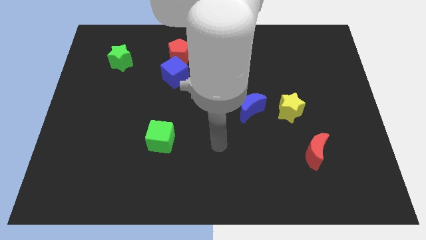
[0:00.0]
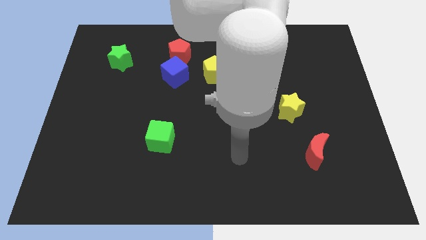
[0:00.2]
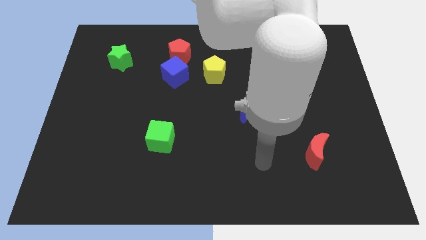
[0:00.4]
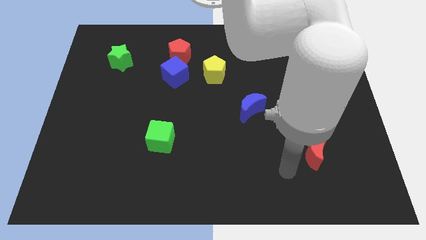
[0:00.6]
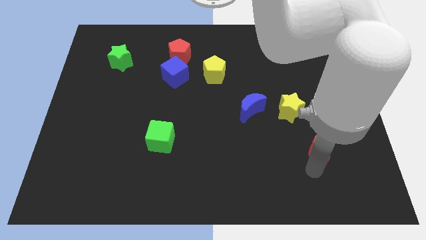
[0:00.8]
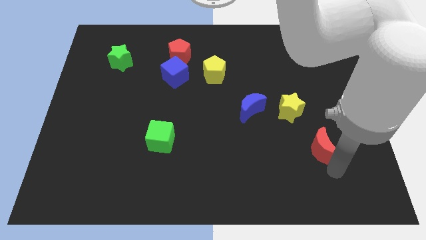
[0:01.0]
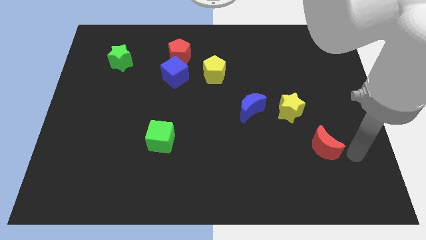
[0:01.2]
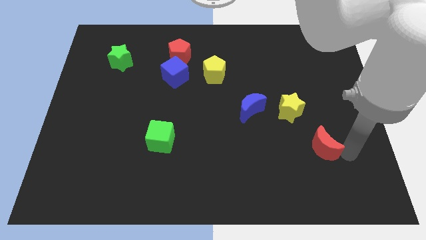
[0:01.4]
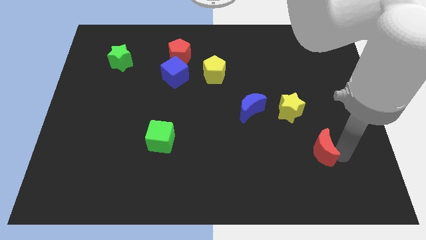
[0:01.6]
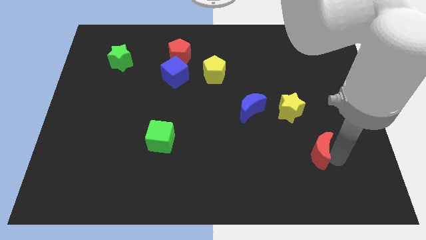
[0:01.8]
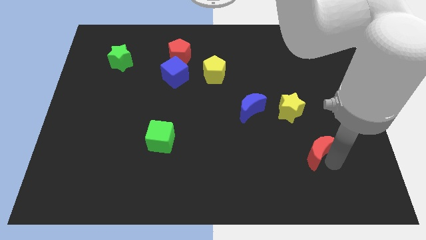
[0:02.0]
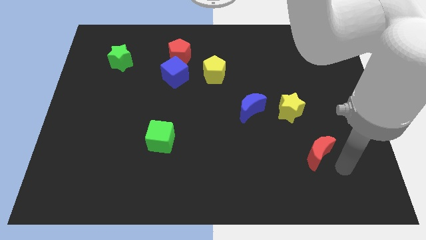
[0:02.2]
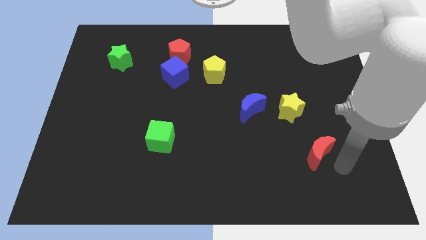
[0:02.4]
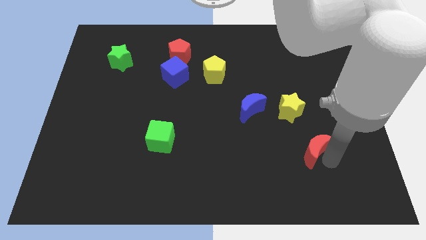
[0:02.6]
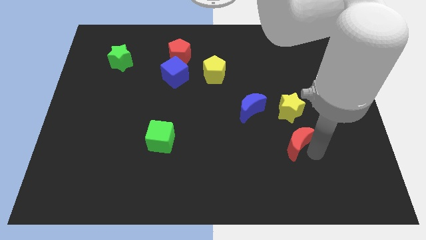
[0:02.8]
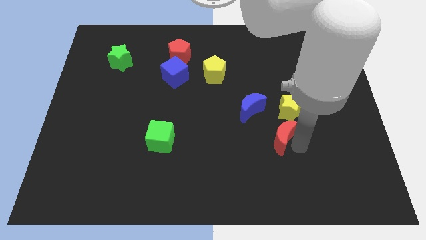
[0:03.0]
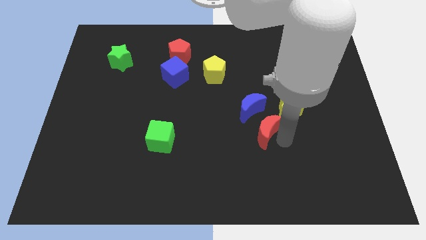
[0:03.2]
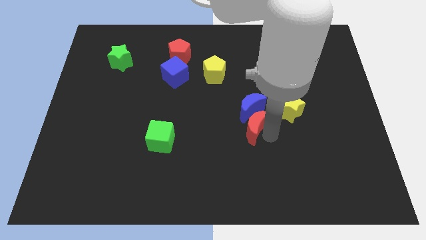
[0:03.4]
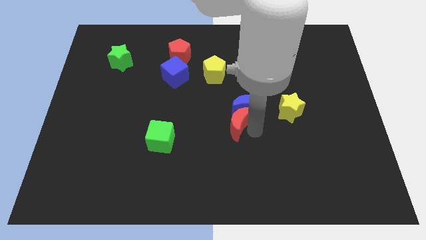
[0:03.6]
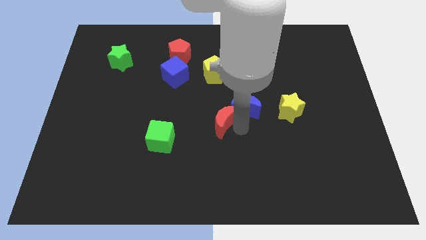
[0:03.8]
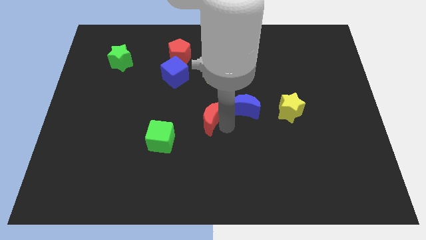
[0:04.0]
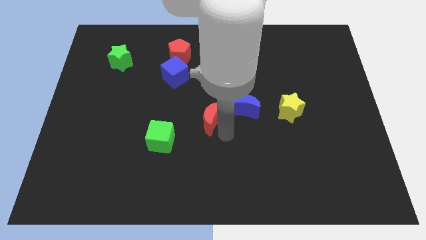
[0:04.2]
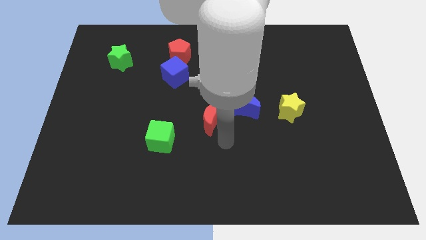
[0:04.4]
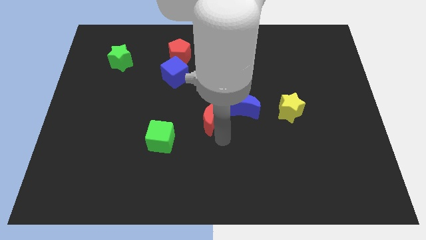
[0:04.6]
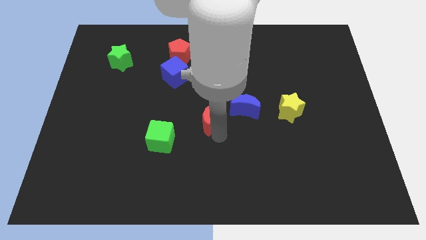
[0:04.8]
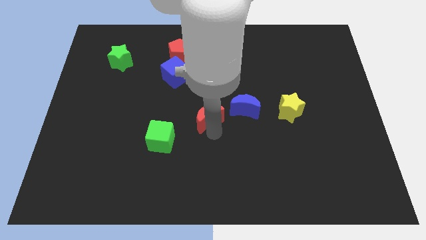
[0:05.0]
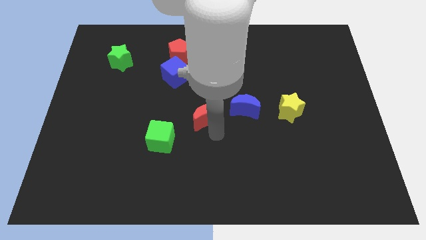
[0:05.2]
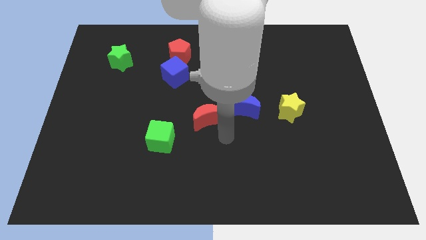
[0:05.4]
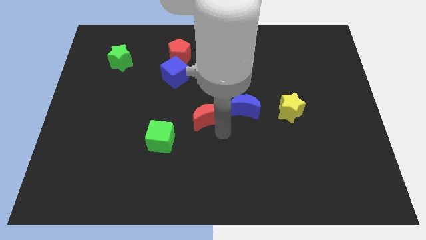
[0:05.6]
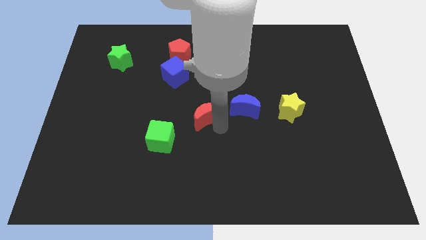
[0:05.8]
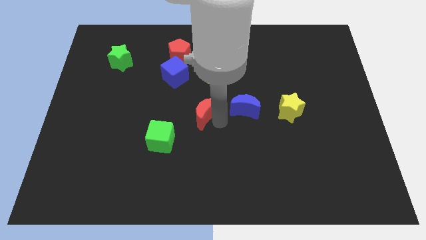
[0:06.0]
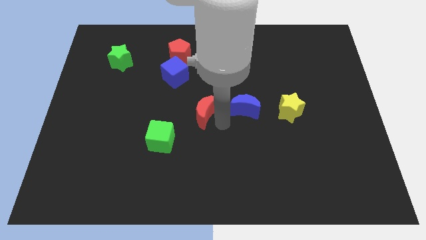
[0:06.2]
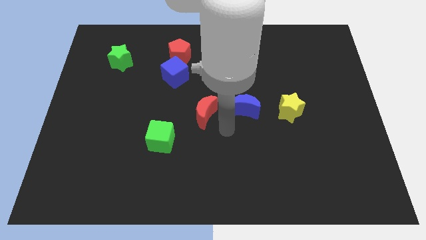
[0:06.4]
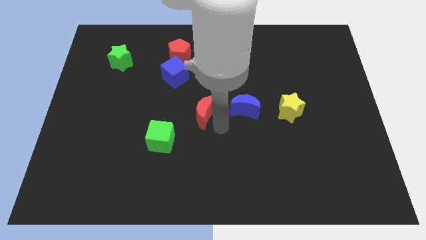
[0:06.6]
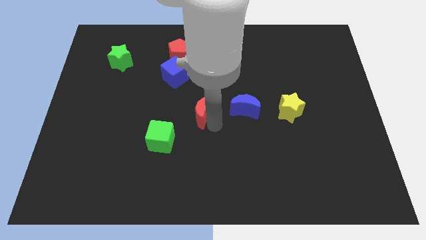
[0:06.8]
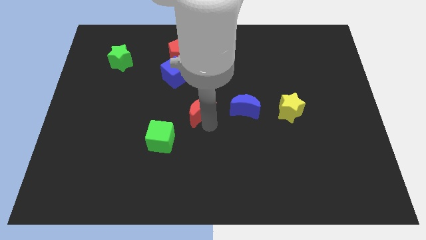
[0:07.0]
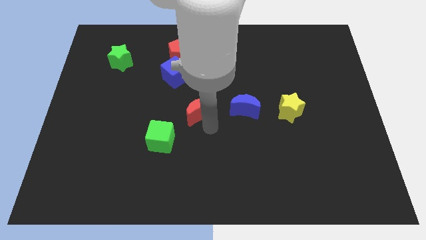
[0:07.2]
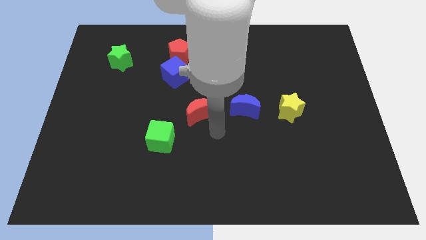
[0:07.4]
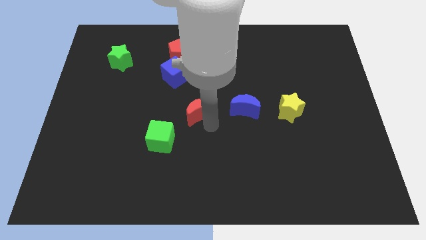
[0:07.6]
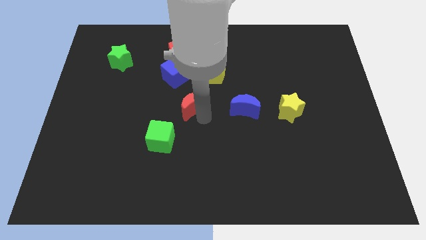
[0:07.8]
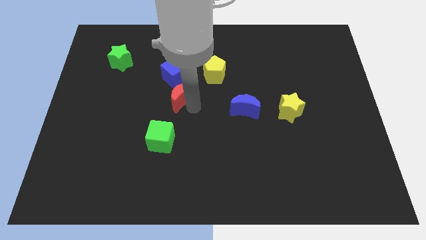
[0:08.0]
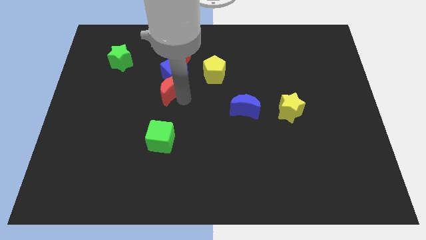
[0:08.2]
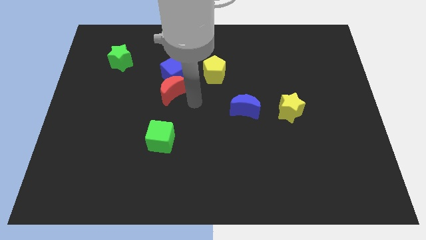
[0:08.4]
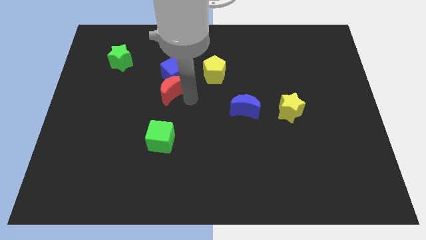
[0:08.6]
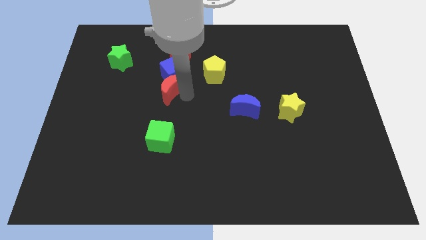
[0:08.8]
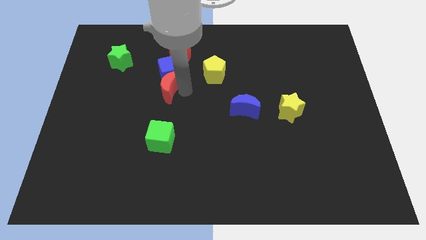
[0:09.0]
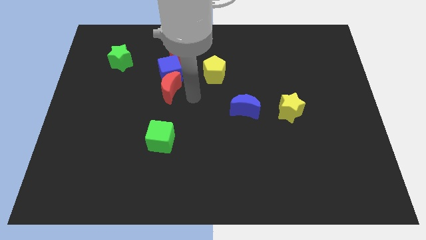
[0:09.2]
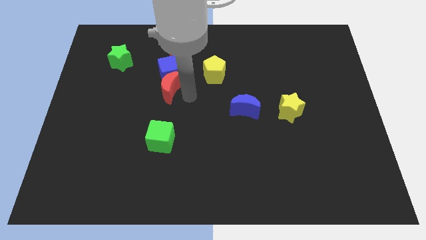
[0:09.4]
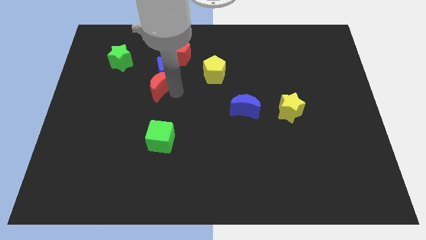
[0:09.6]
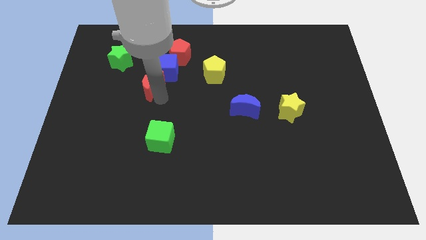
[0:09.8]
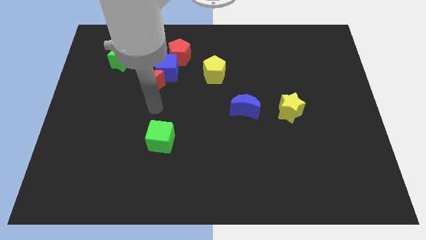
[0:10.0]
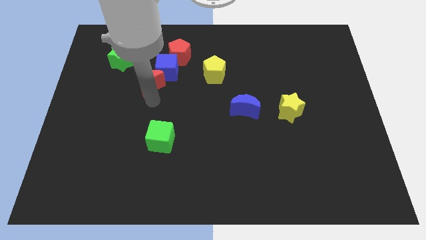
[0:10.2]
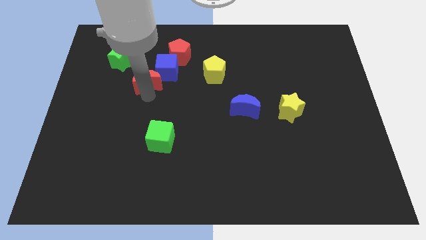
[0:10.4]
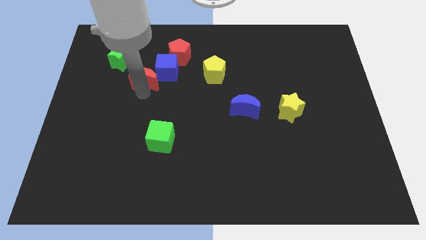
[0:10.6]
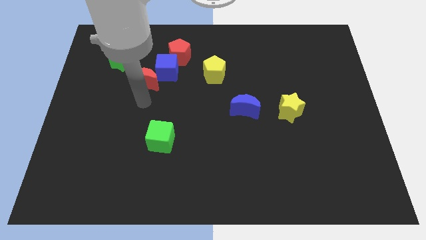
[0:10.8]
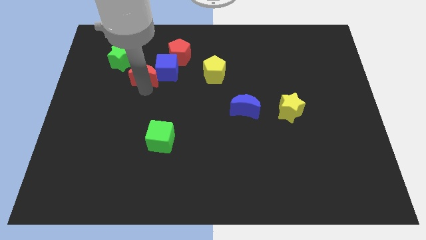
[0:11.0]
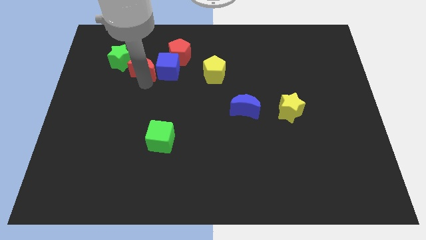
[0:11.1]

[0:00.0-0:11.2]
push the red moon to the top left side of the blue cube

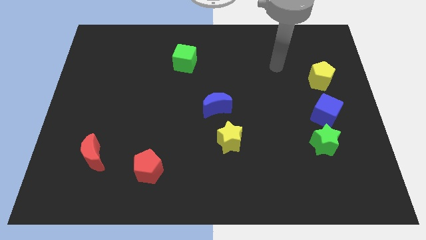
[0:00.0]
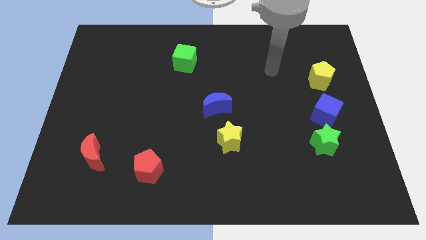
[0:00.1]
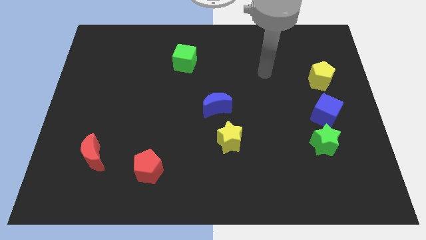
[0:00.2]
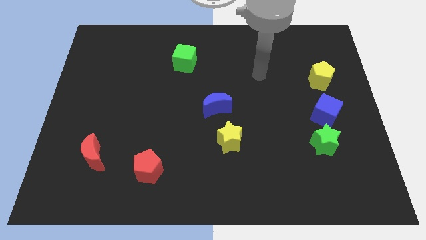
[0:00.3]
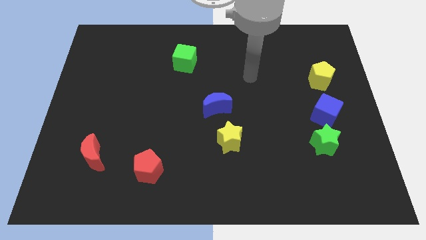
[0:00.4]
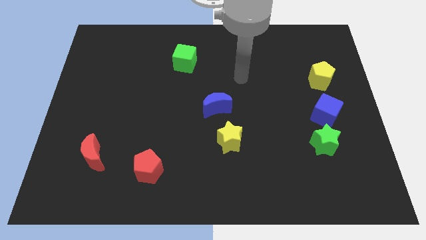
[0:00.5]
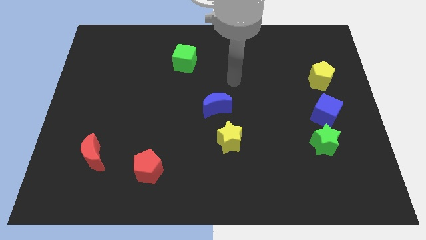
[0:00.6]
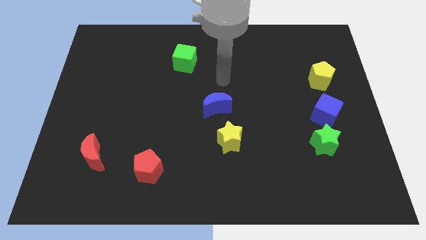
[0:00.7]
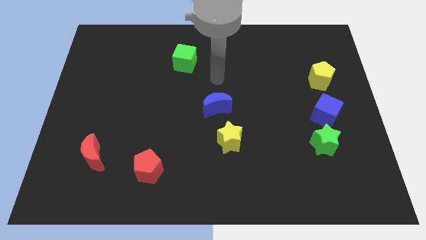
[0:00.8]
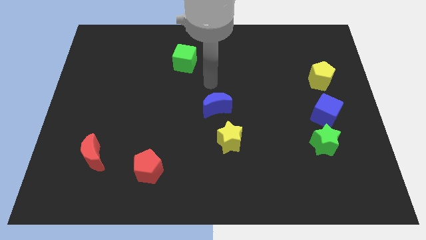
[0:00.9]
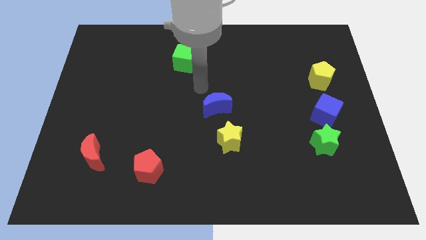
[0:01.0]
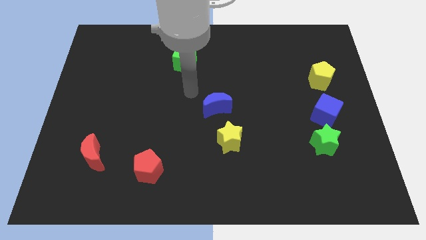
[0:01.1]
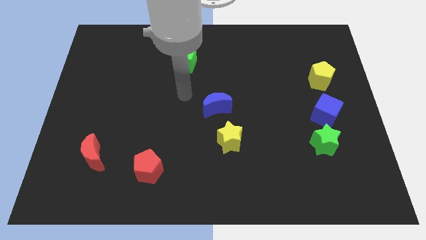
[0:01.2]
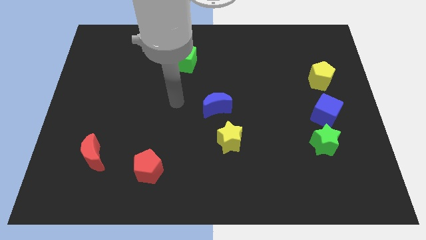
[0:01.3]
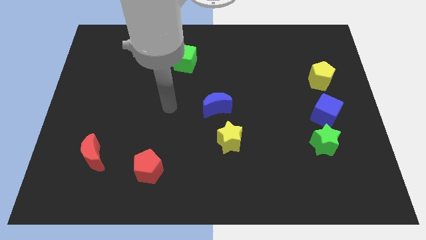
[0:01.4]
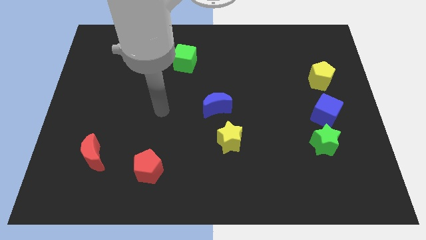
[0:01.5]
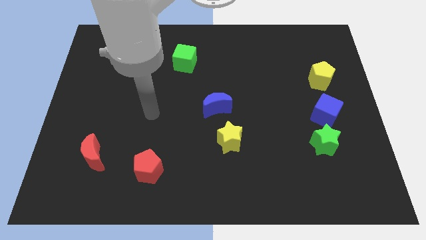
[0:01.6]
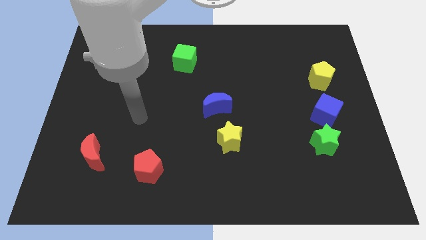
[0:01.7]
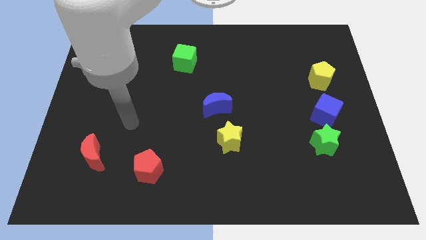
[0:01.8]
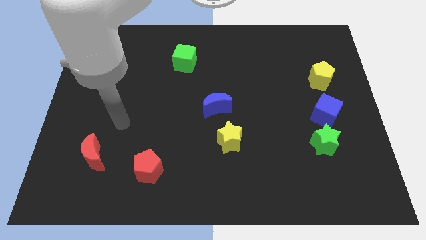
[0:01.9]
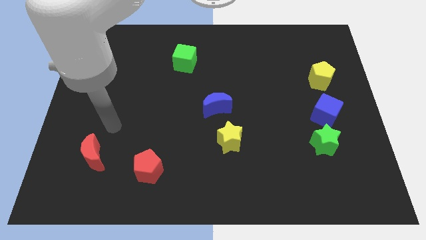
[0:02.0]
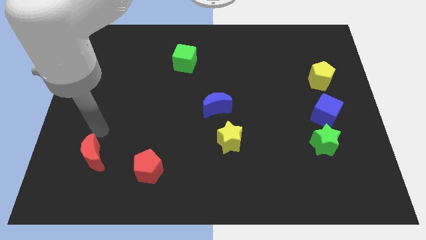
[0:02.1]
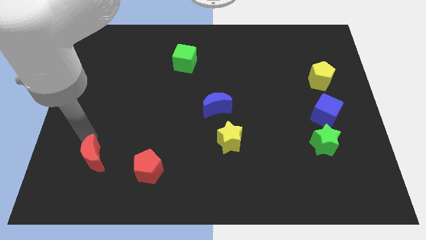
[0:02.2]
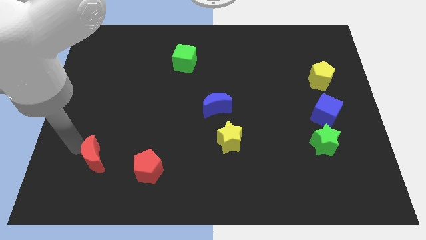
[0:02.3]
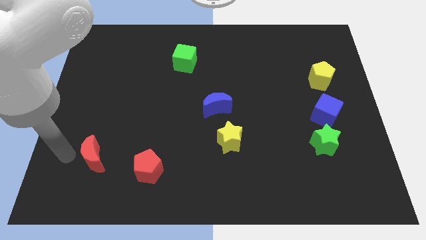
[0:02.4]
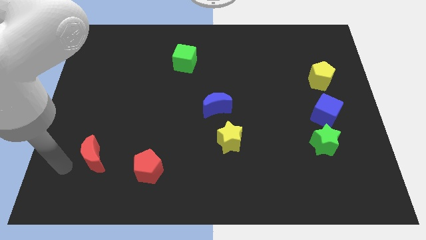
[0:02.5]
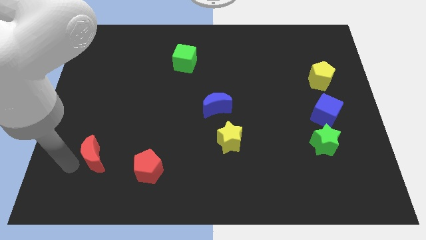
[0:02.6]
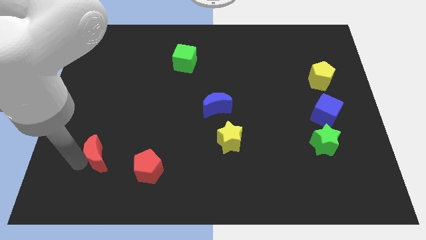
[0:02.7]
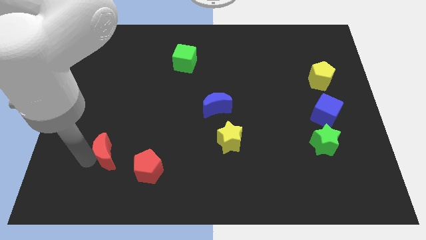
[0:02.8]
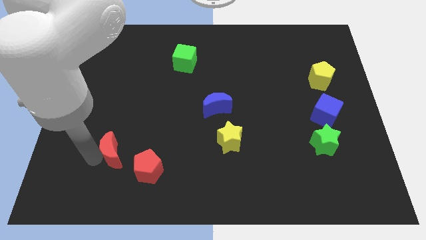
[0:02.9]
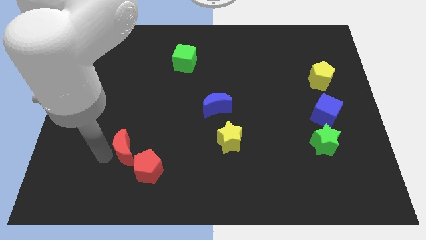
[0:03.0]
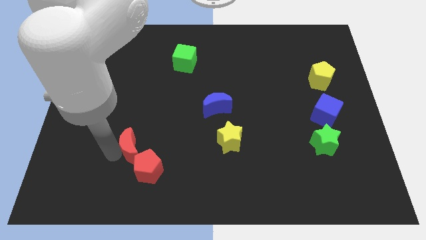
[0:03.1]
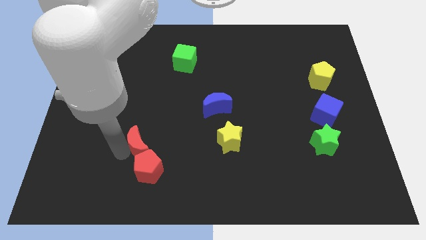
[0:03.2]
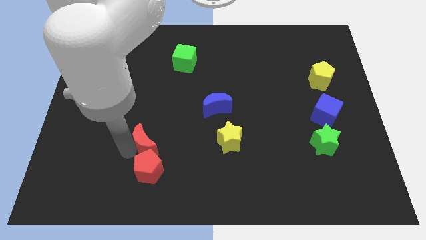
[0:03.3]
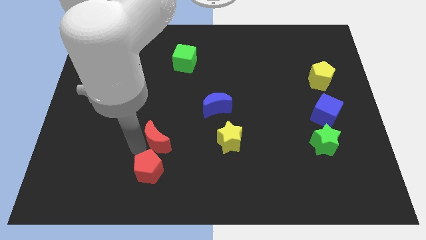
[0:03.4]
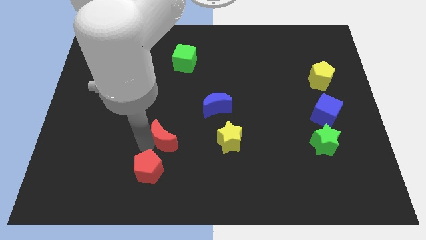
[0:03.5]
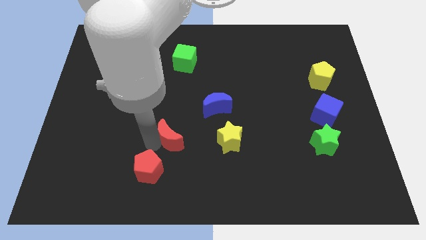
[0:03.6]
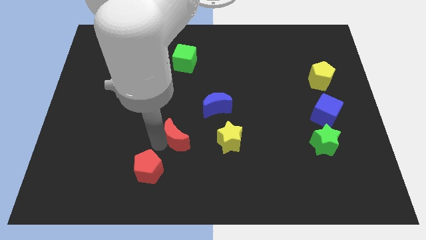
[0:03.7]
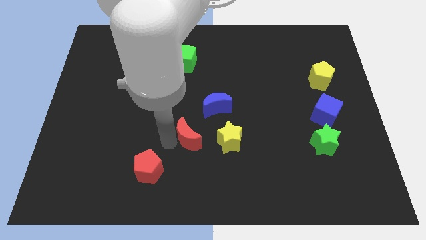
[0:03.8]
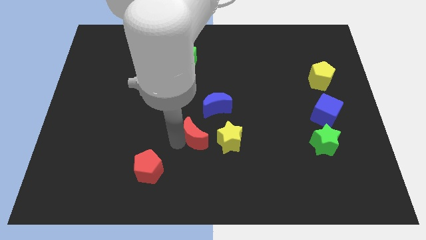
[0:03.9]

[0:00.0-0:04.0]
move the red moon to the top left of the yellow star
